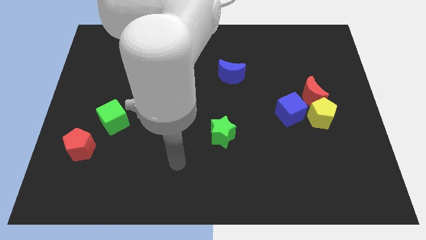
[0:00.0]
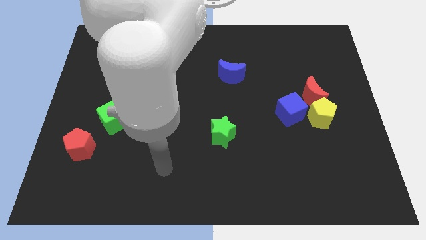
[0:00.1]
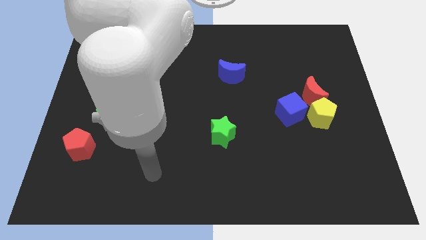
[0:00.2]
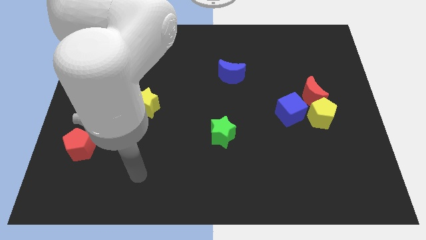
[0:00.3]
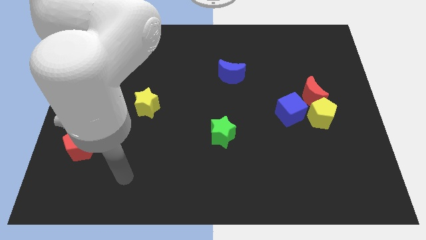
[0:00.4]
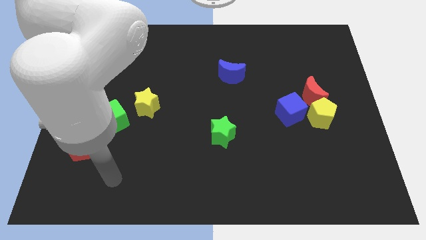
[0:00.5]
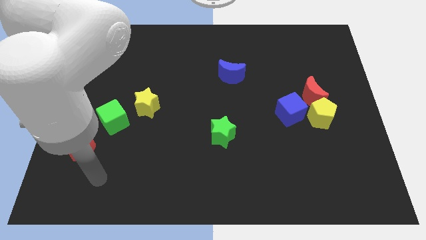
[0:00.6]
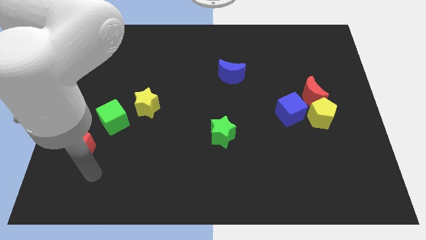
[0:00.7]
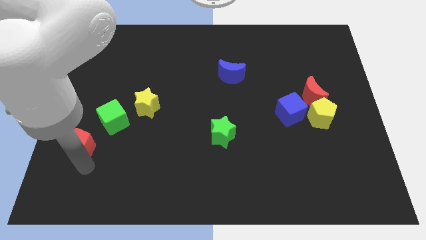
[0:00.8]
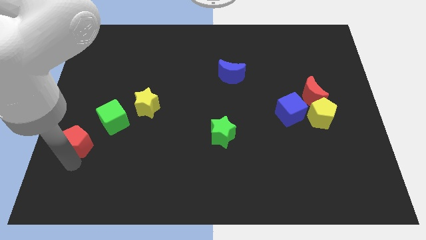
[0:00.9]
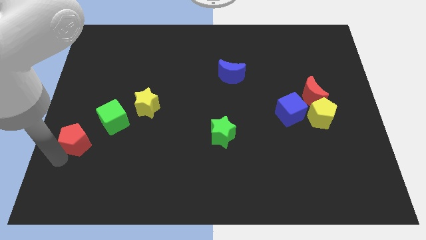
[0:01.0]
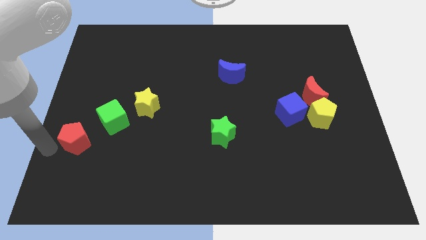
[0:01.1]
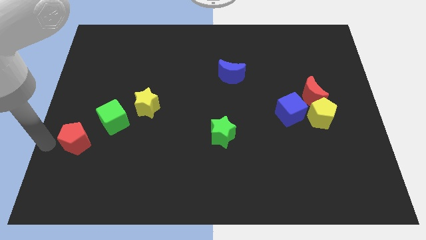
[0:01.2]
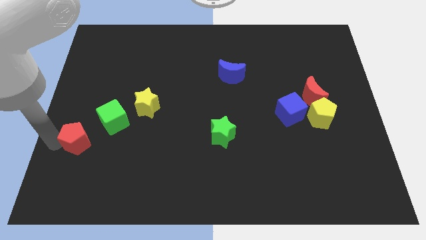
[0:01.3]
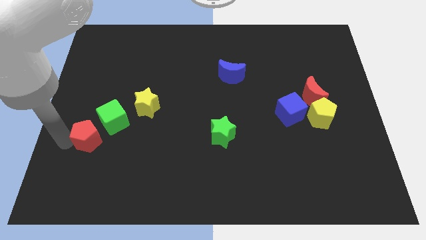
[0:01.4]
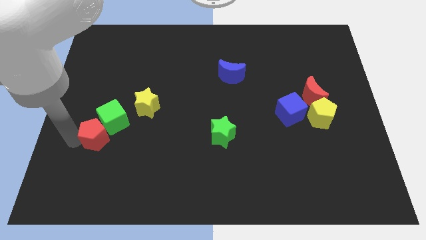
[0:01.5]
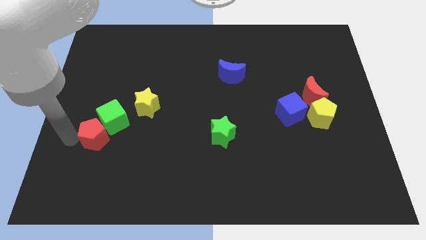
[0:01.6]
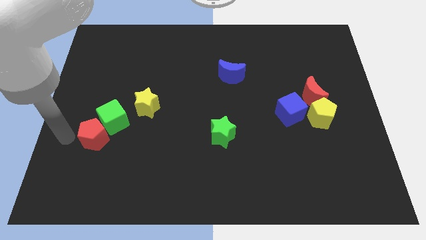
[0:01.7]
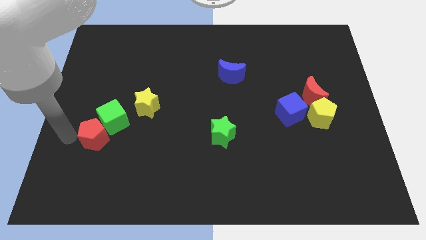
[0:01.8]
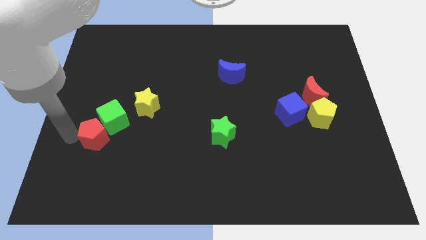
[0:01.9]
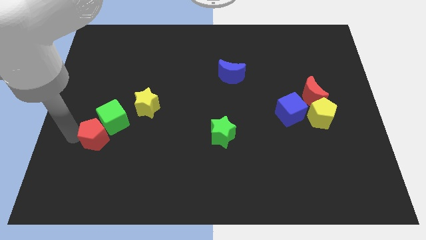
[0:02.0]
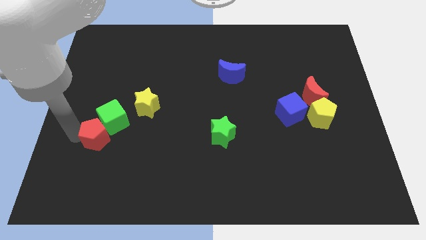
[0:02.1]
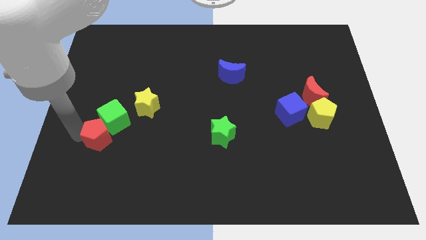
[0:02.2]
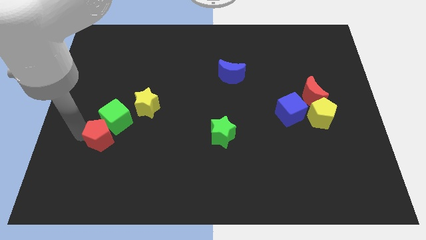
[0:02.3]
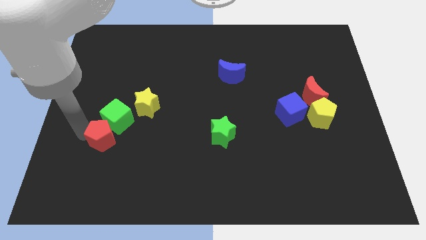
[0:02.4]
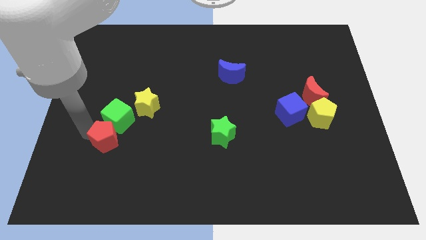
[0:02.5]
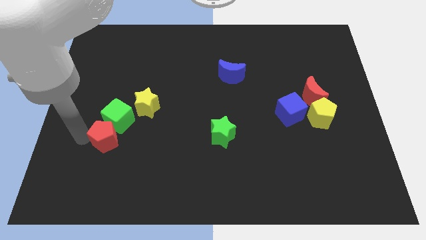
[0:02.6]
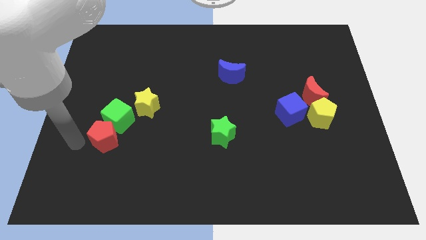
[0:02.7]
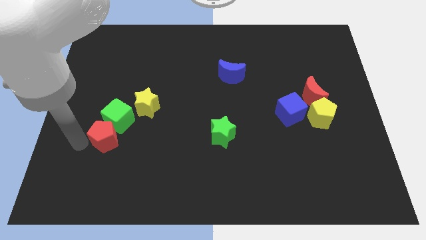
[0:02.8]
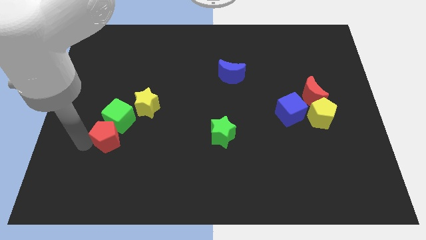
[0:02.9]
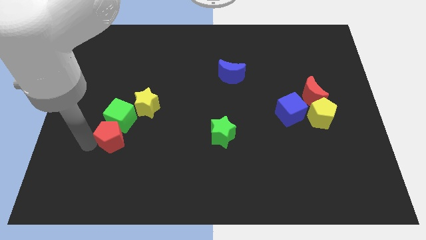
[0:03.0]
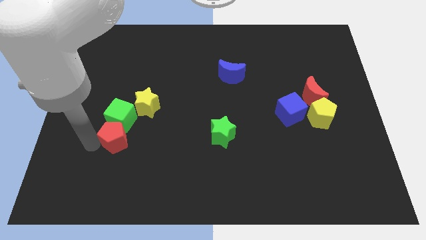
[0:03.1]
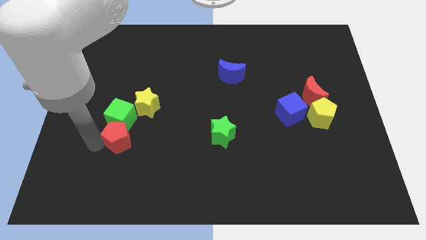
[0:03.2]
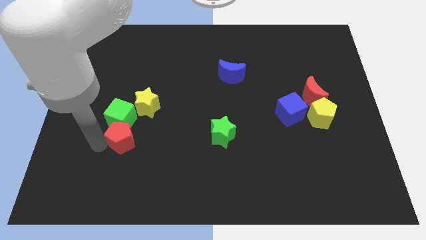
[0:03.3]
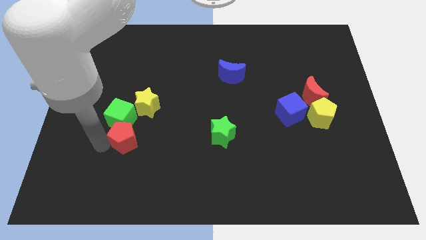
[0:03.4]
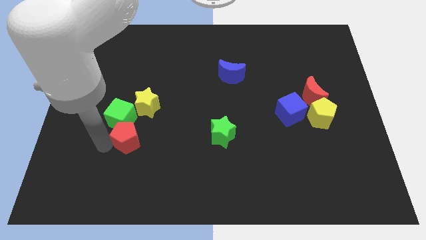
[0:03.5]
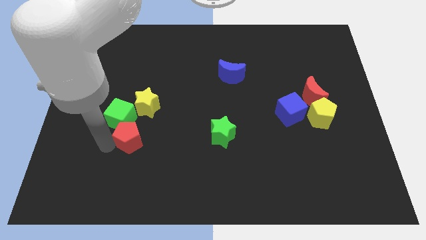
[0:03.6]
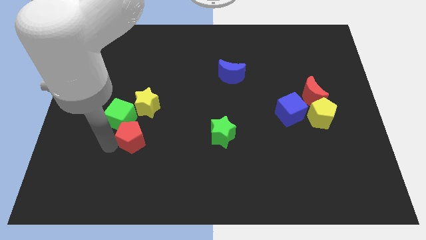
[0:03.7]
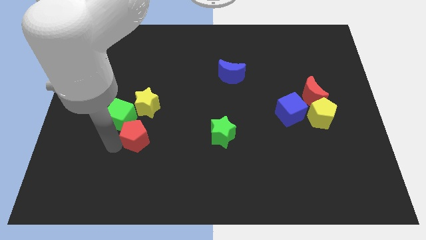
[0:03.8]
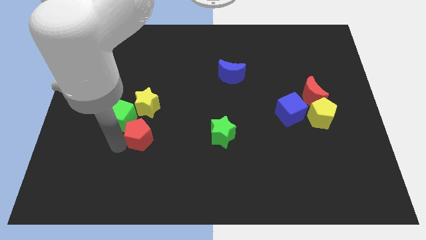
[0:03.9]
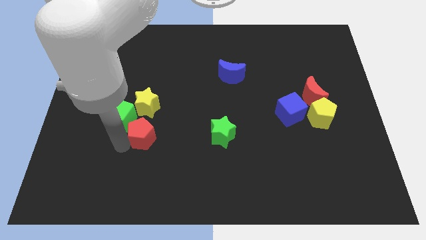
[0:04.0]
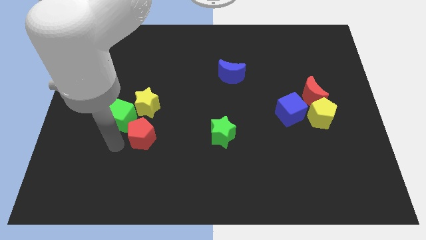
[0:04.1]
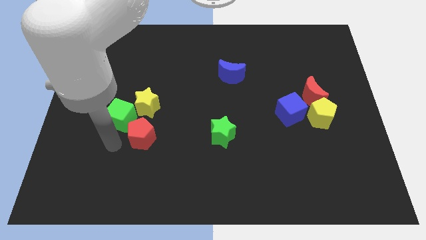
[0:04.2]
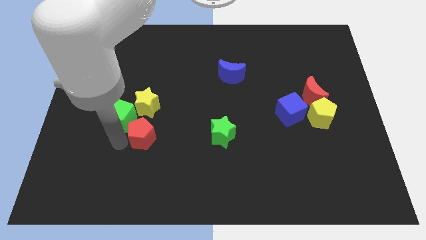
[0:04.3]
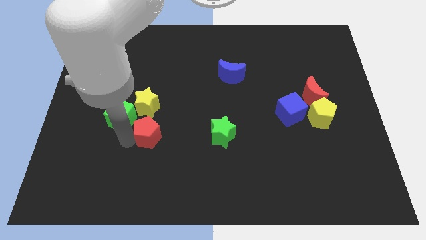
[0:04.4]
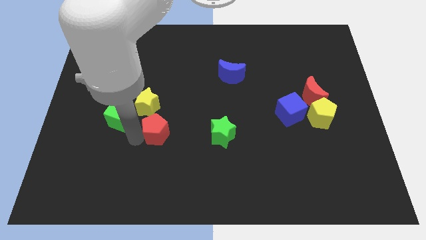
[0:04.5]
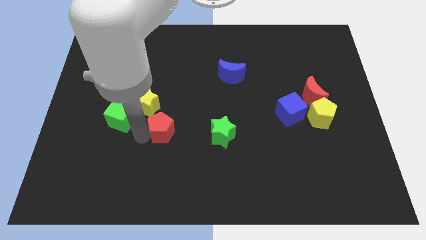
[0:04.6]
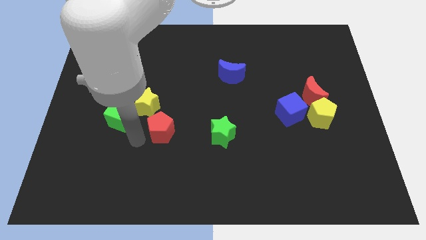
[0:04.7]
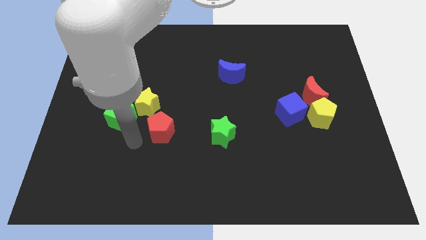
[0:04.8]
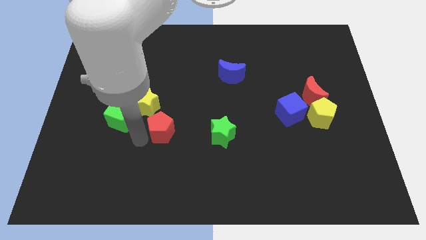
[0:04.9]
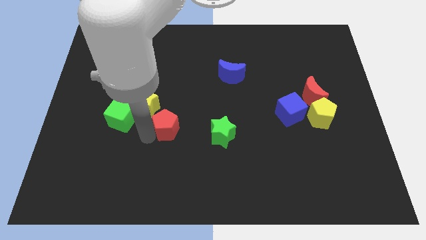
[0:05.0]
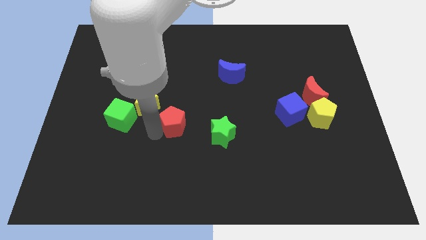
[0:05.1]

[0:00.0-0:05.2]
put the red pentagon to the center

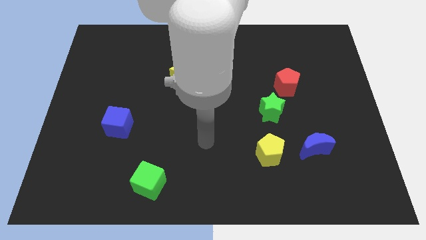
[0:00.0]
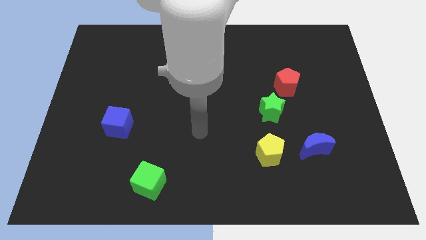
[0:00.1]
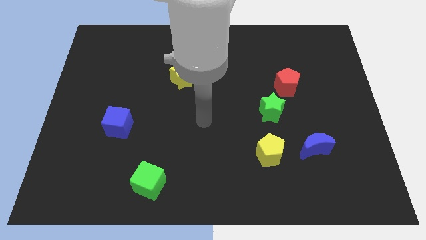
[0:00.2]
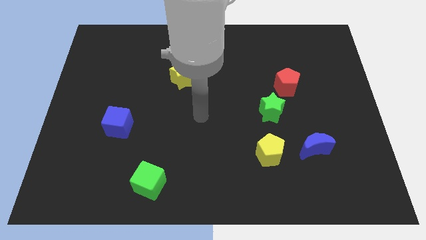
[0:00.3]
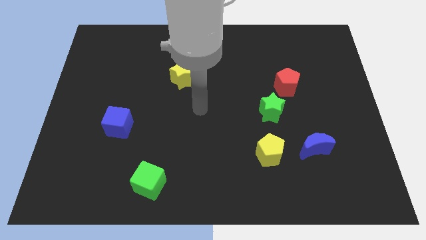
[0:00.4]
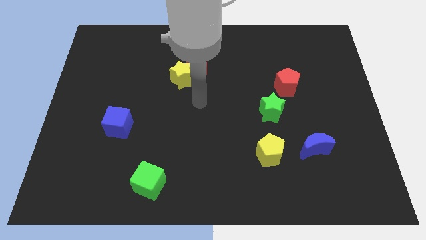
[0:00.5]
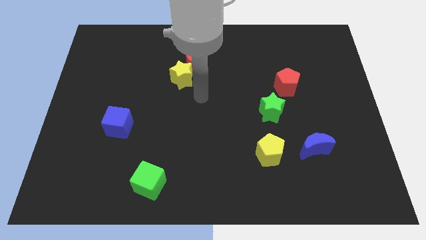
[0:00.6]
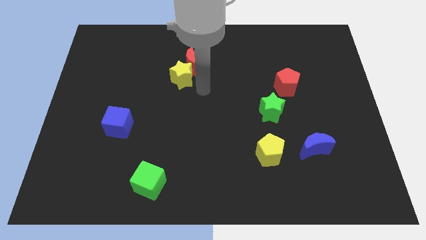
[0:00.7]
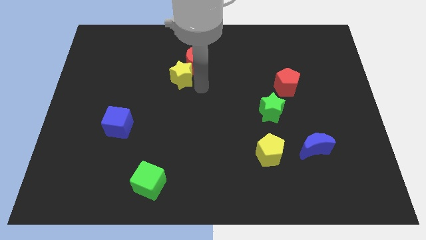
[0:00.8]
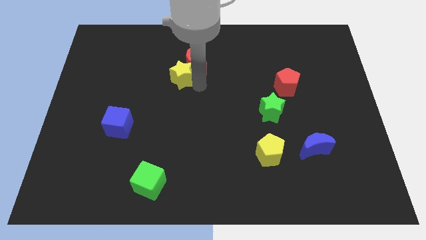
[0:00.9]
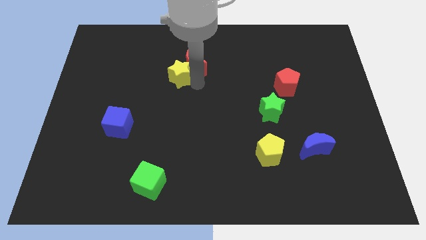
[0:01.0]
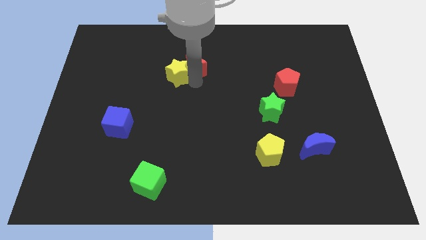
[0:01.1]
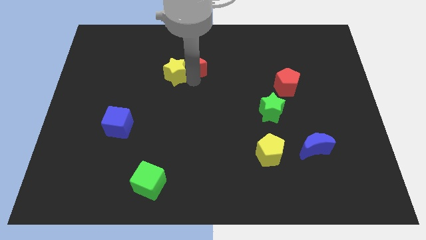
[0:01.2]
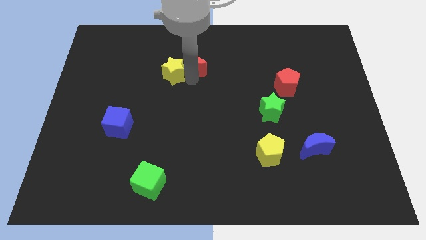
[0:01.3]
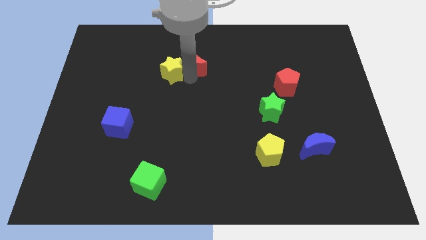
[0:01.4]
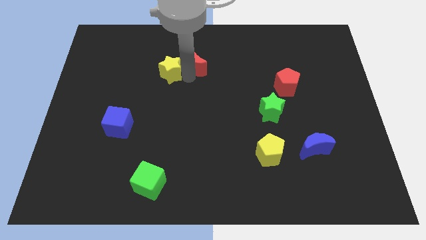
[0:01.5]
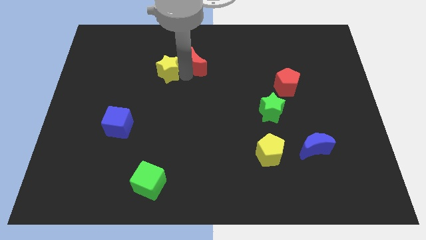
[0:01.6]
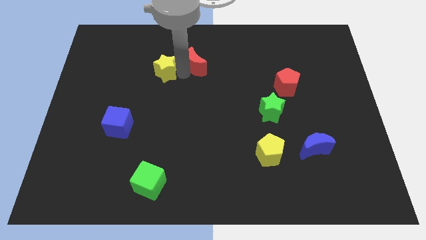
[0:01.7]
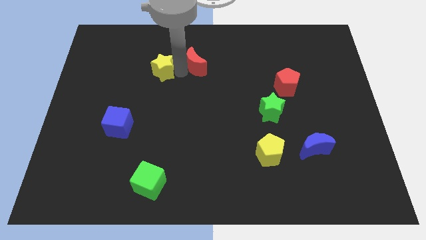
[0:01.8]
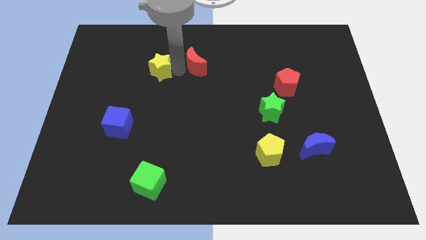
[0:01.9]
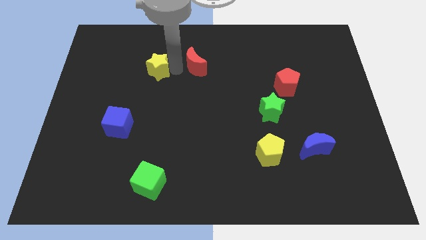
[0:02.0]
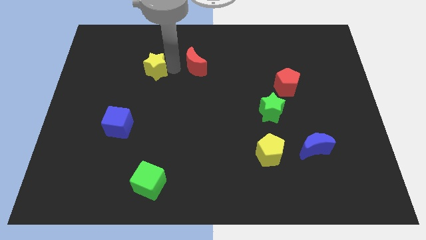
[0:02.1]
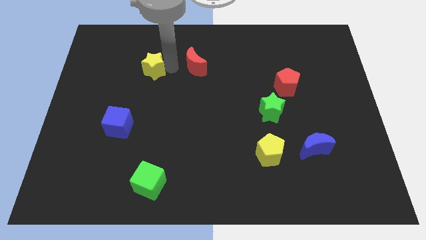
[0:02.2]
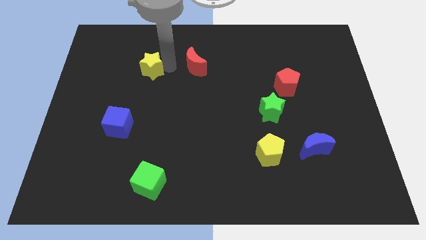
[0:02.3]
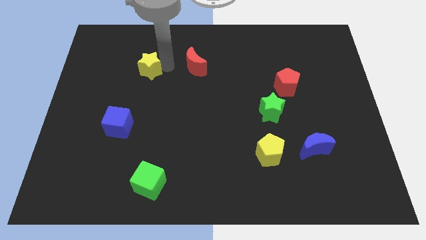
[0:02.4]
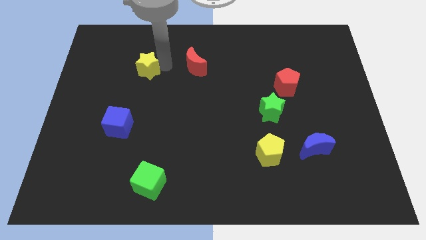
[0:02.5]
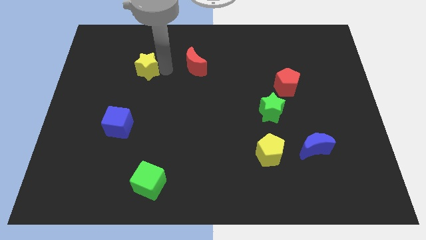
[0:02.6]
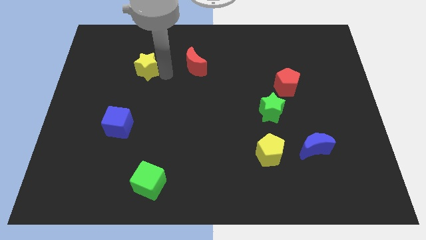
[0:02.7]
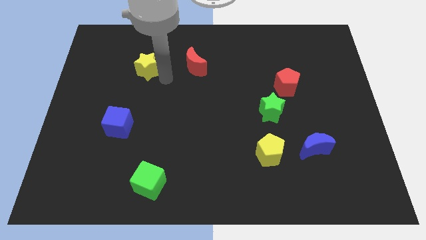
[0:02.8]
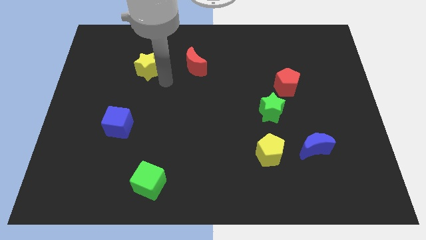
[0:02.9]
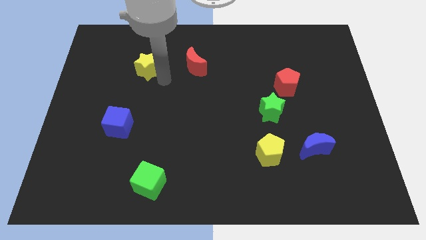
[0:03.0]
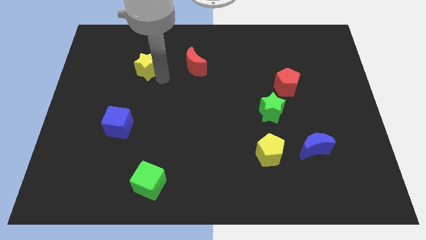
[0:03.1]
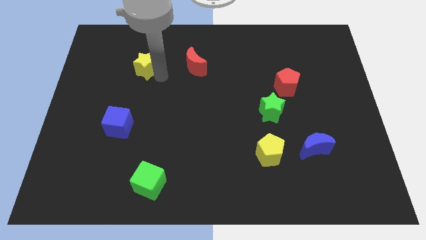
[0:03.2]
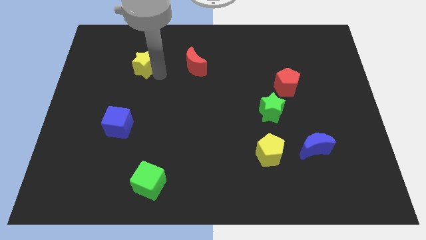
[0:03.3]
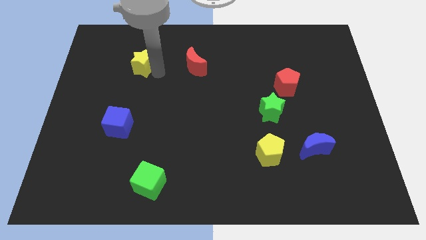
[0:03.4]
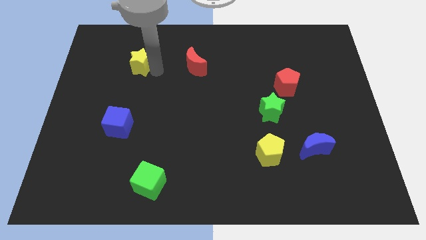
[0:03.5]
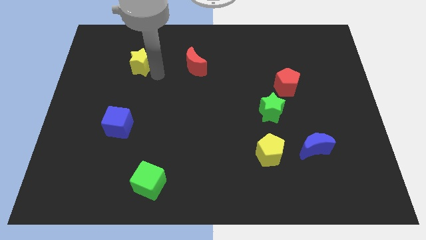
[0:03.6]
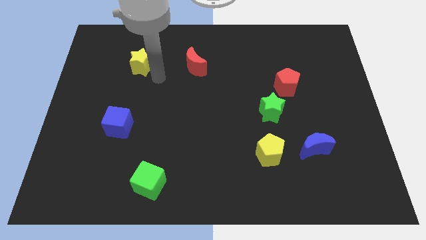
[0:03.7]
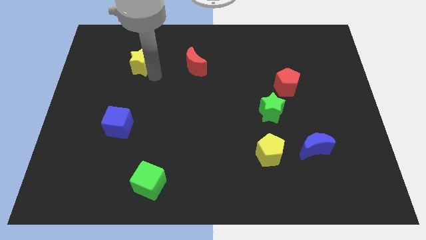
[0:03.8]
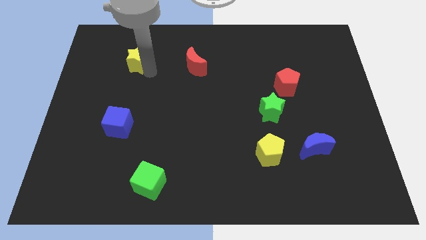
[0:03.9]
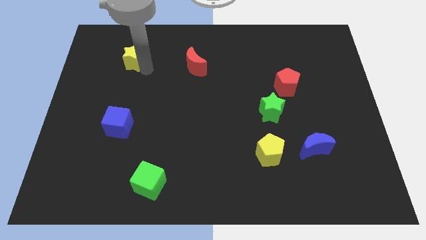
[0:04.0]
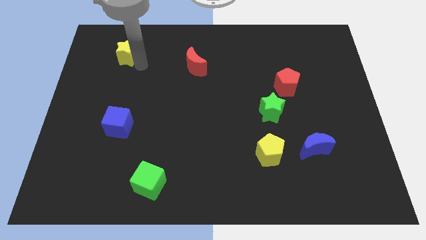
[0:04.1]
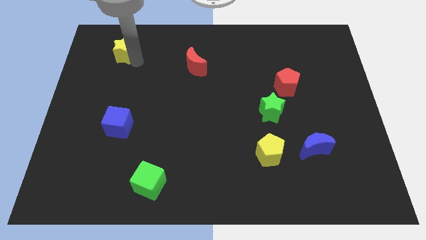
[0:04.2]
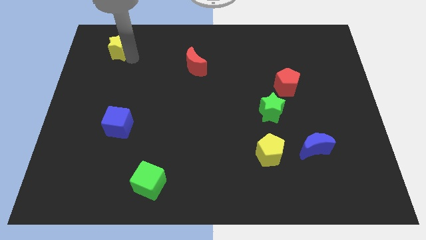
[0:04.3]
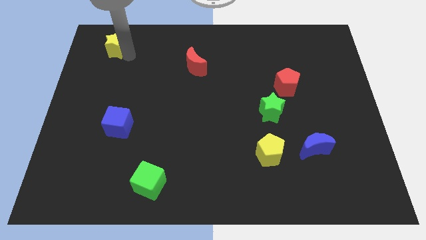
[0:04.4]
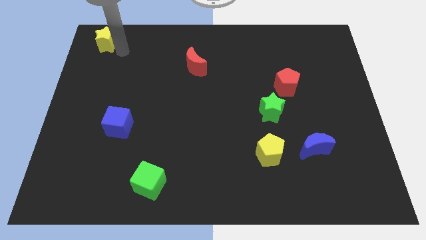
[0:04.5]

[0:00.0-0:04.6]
put the yellow star to the top left of the board
